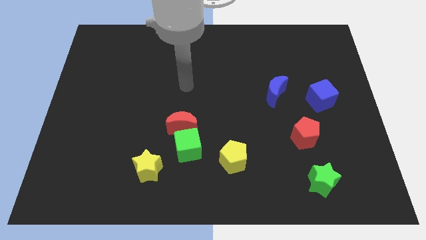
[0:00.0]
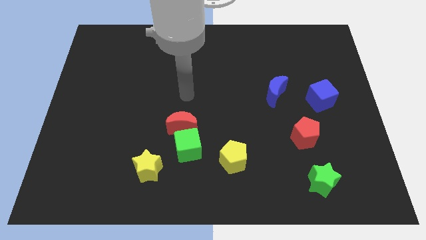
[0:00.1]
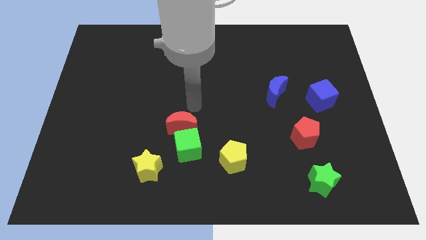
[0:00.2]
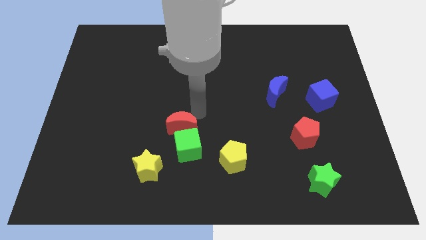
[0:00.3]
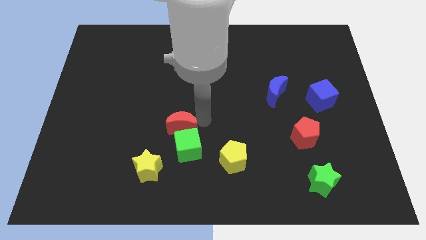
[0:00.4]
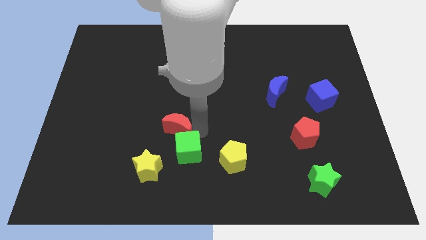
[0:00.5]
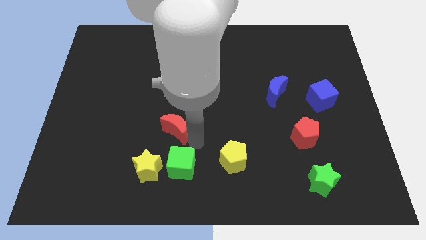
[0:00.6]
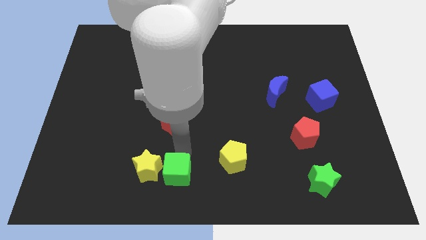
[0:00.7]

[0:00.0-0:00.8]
pull the red moon apart from the green cube

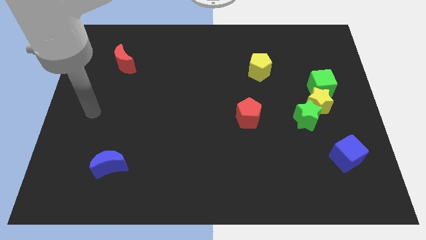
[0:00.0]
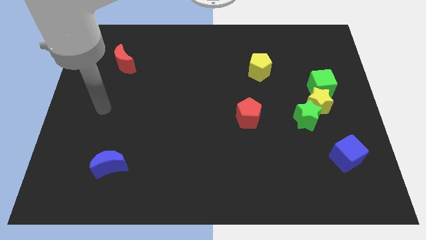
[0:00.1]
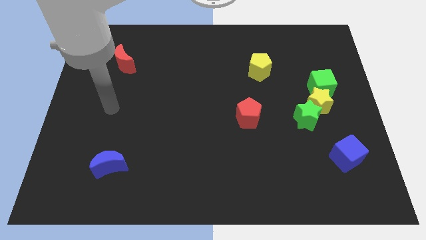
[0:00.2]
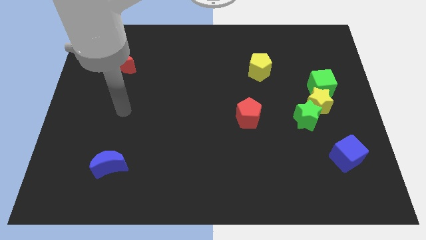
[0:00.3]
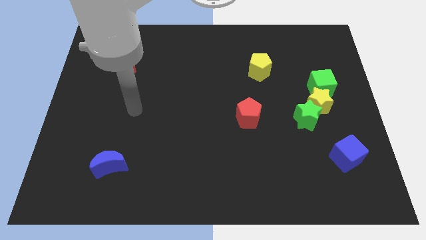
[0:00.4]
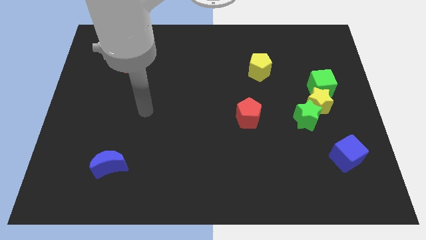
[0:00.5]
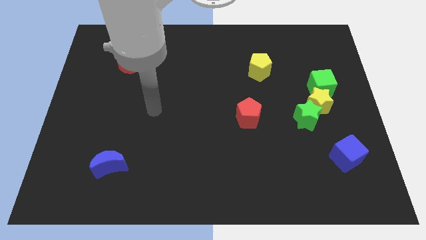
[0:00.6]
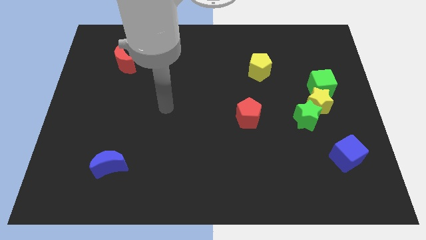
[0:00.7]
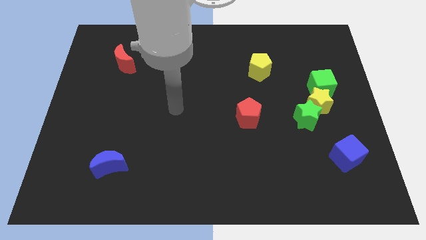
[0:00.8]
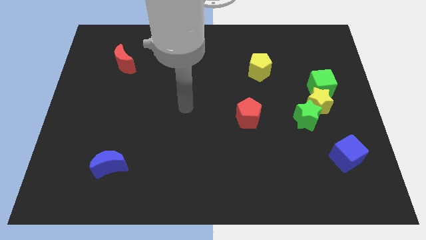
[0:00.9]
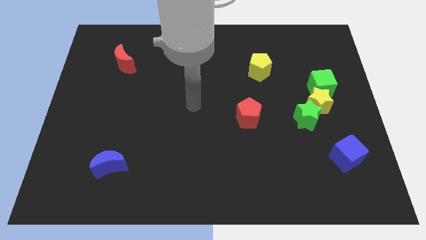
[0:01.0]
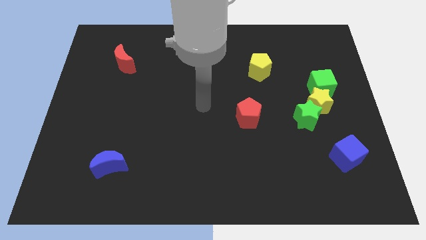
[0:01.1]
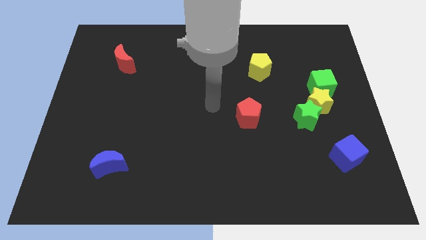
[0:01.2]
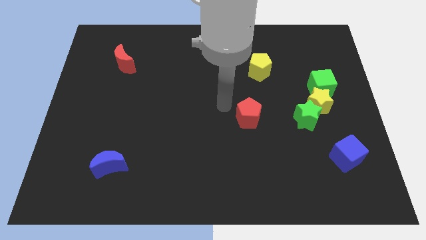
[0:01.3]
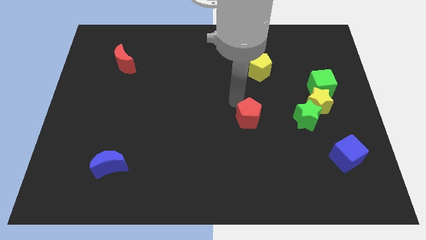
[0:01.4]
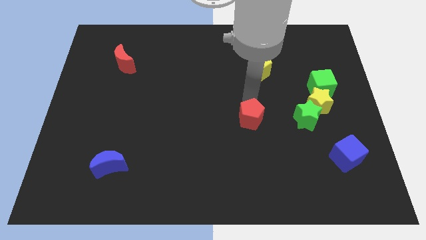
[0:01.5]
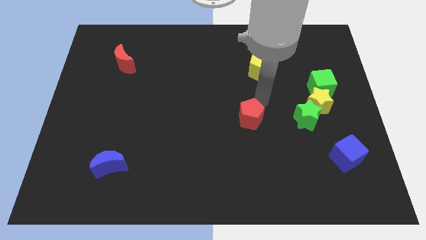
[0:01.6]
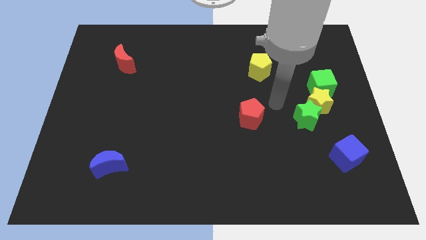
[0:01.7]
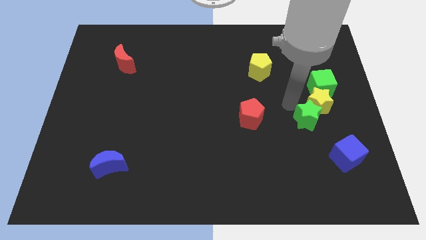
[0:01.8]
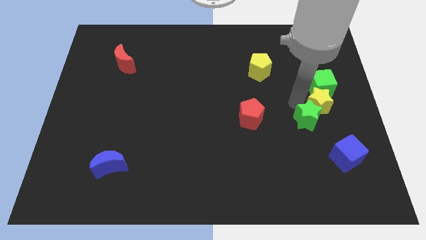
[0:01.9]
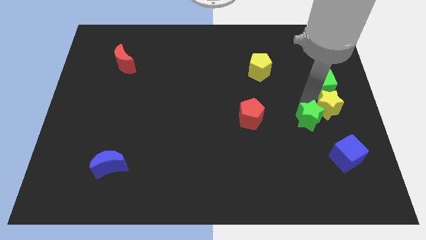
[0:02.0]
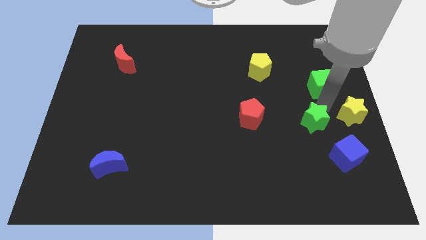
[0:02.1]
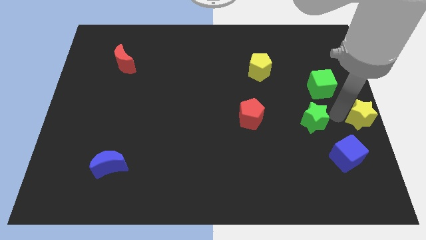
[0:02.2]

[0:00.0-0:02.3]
separate the green star from the yellow star

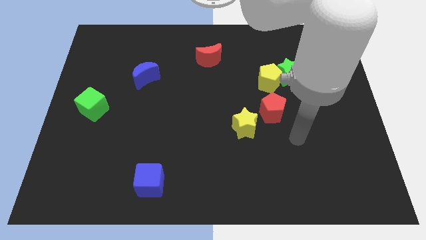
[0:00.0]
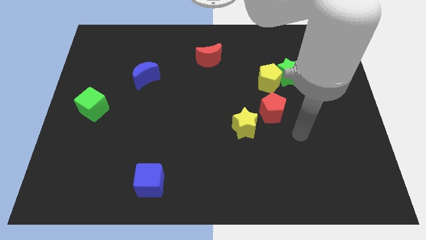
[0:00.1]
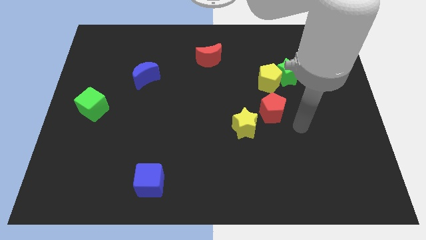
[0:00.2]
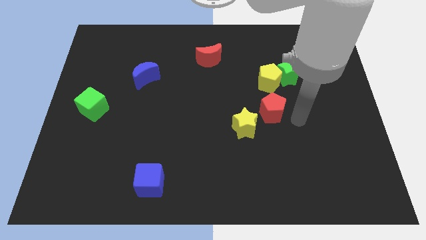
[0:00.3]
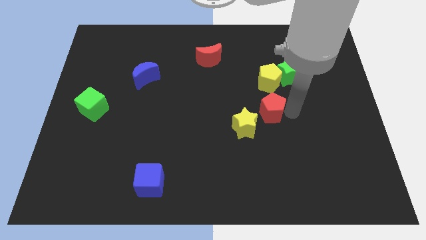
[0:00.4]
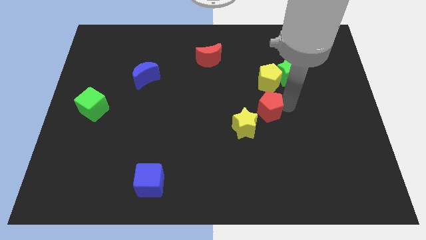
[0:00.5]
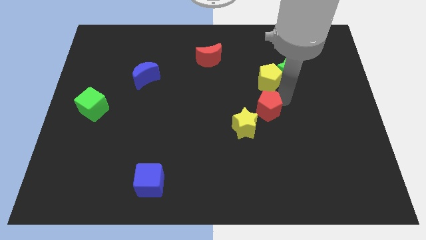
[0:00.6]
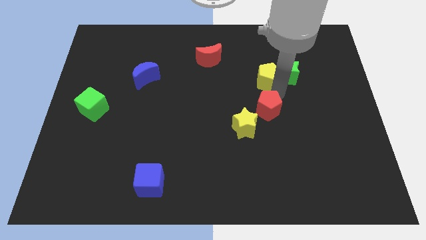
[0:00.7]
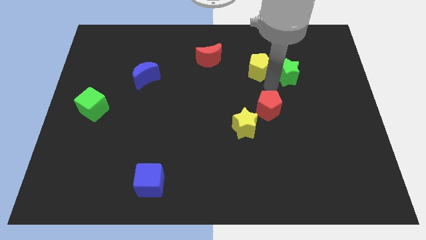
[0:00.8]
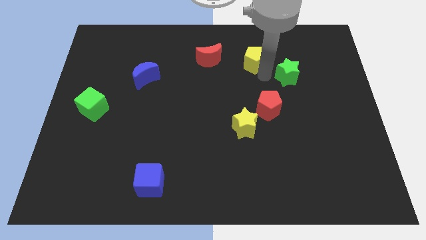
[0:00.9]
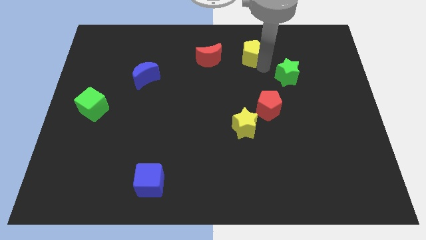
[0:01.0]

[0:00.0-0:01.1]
move the green star away from the yellow pentagon

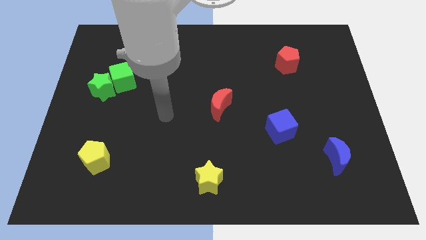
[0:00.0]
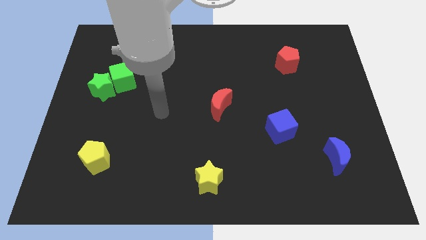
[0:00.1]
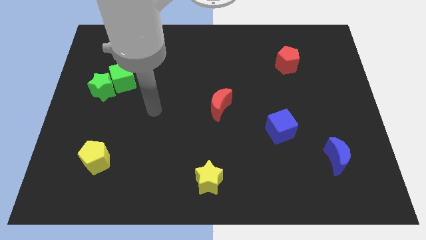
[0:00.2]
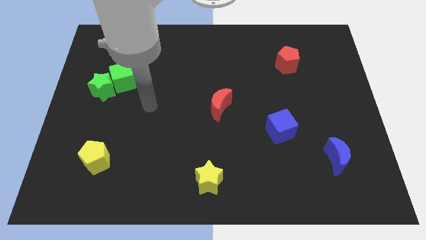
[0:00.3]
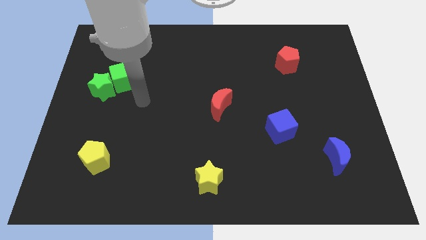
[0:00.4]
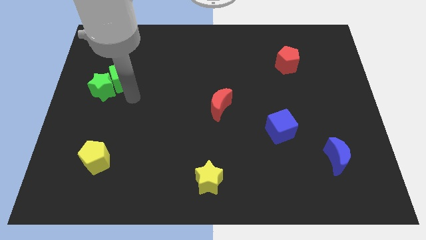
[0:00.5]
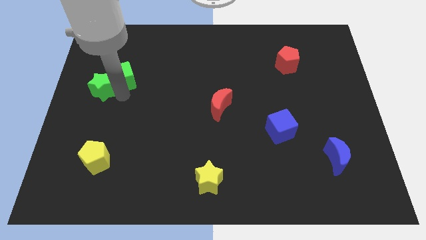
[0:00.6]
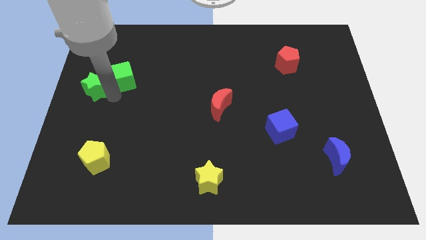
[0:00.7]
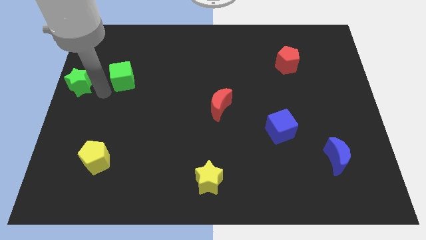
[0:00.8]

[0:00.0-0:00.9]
separate the green cube from the green star

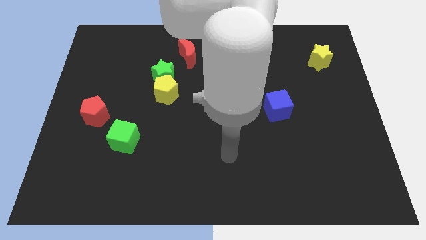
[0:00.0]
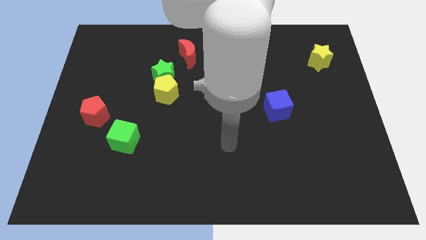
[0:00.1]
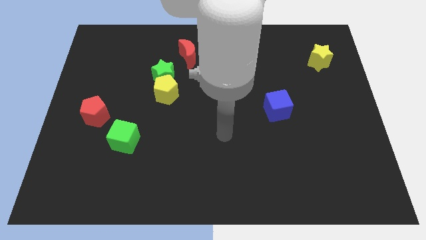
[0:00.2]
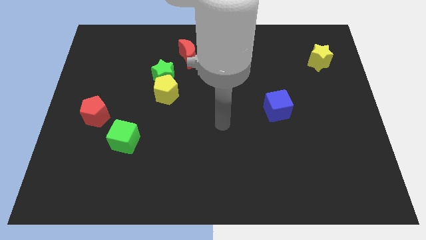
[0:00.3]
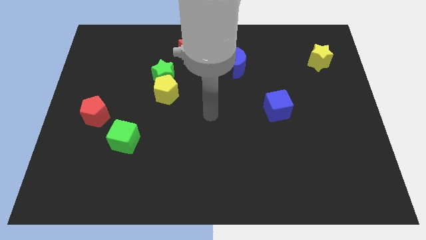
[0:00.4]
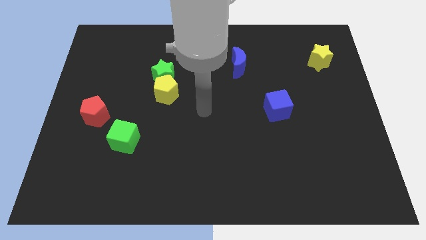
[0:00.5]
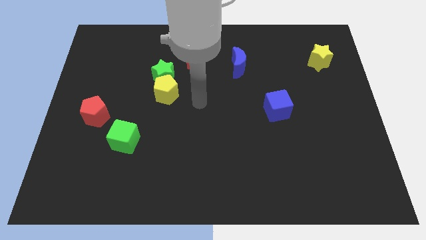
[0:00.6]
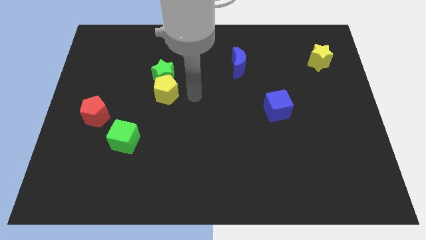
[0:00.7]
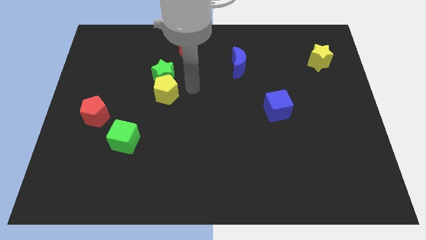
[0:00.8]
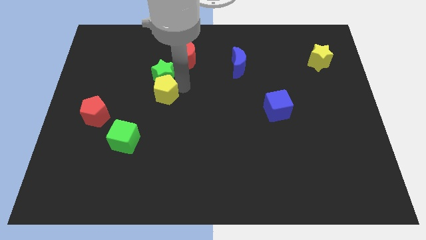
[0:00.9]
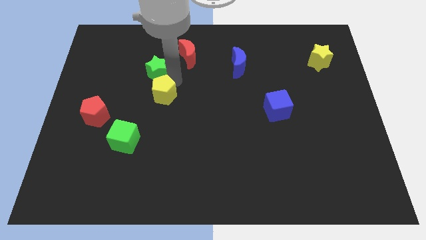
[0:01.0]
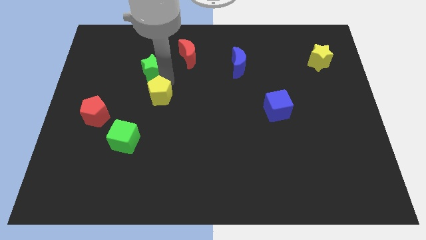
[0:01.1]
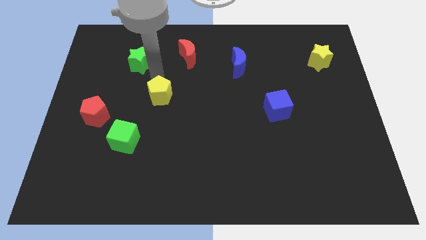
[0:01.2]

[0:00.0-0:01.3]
separate the yellow pentagon from the green star

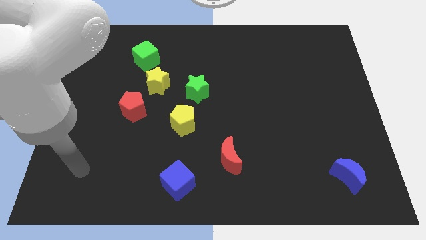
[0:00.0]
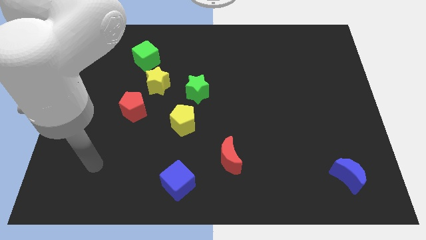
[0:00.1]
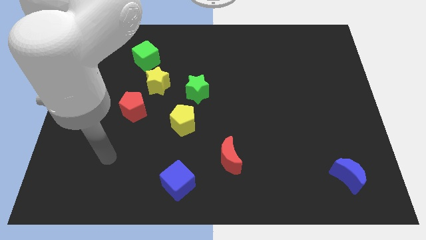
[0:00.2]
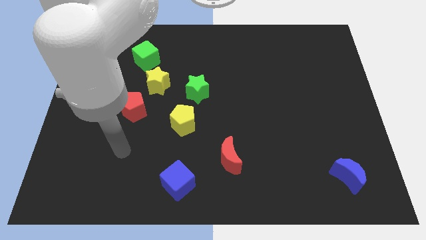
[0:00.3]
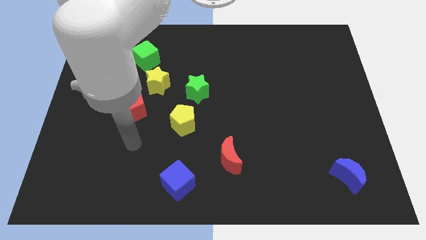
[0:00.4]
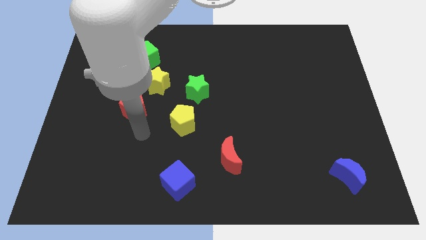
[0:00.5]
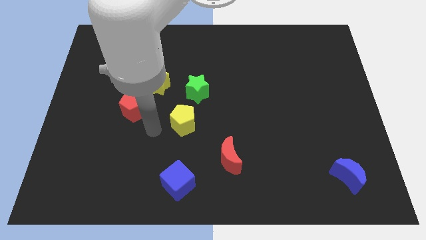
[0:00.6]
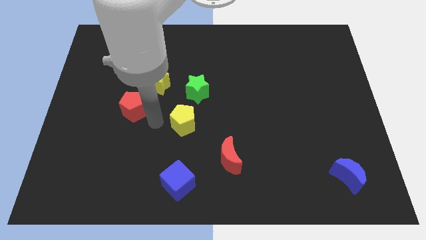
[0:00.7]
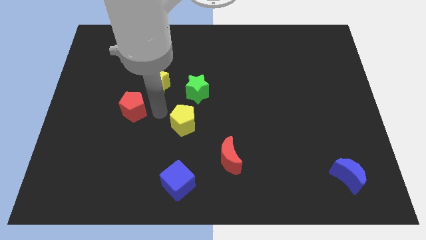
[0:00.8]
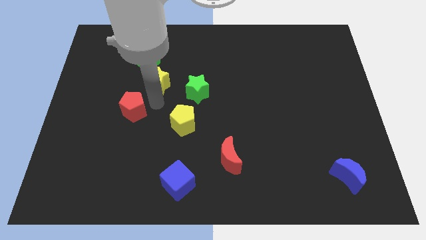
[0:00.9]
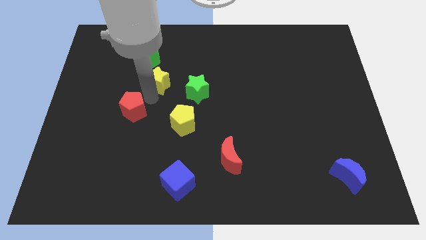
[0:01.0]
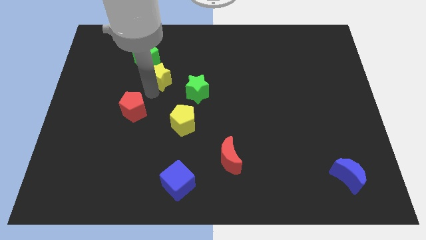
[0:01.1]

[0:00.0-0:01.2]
pull the red pentagon apart from the yellow star

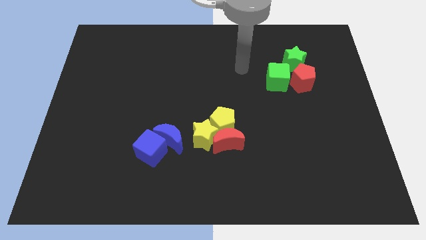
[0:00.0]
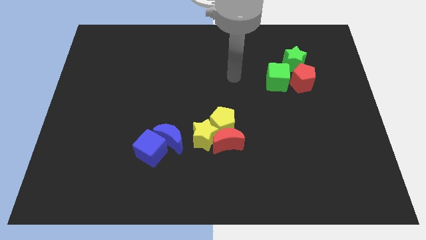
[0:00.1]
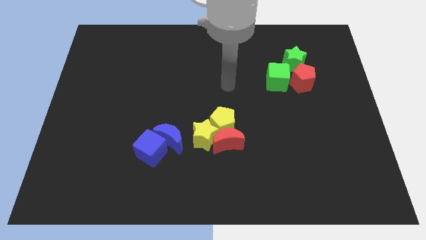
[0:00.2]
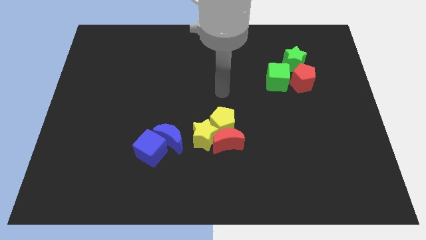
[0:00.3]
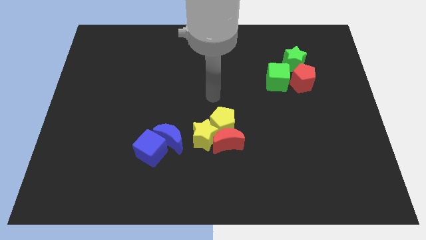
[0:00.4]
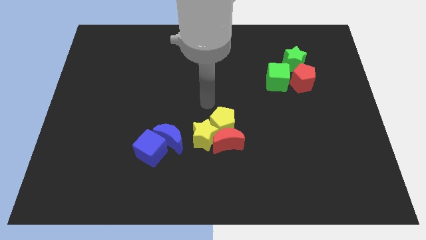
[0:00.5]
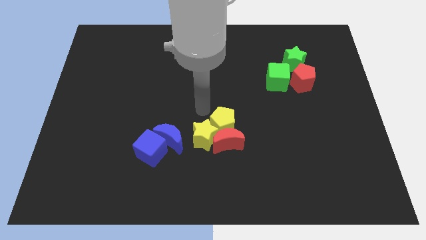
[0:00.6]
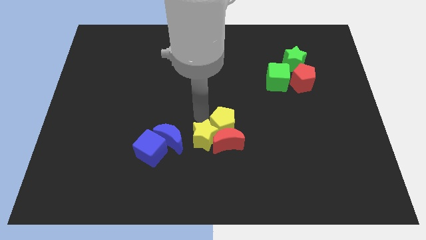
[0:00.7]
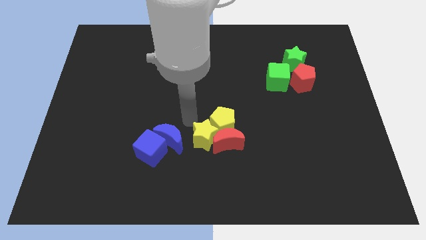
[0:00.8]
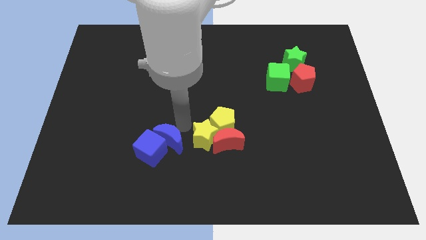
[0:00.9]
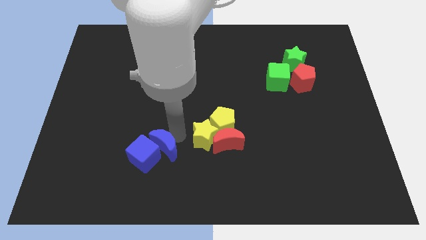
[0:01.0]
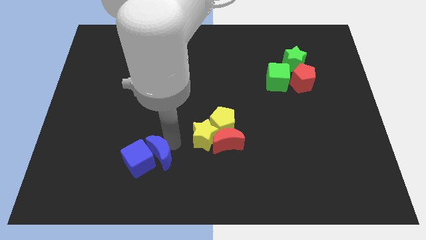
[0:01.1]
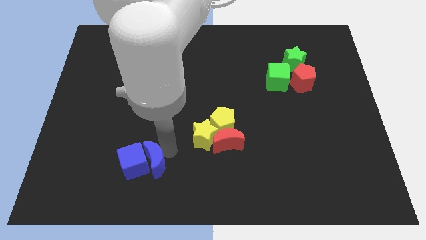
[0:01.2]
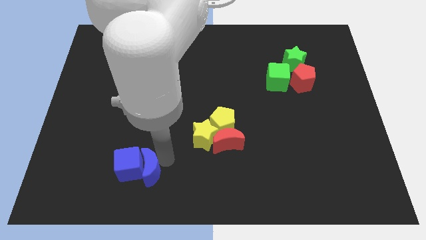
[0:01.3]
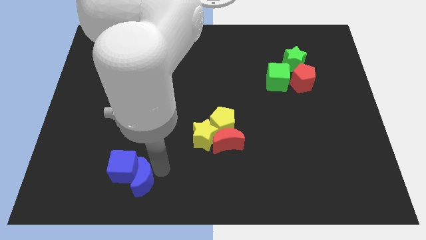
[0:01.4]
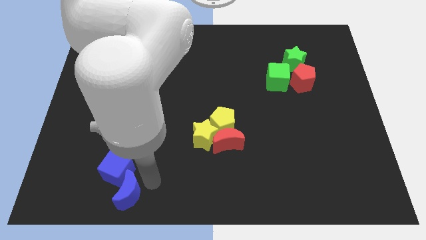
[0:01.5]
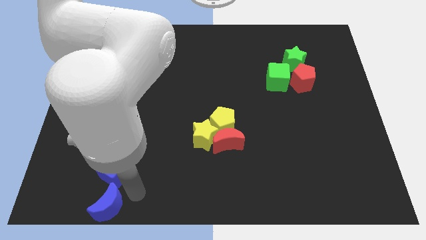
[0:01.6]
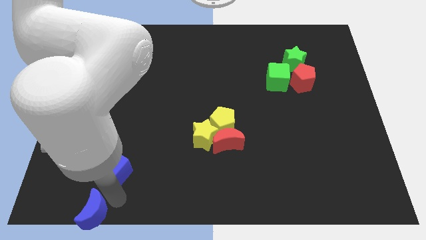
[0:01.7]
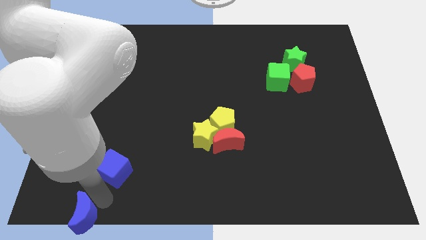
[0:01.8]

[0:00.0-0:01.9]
separate the blue cube from the blue moon
